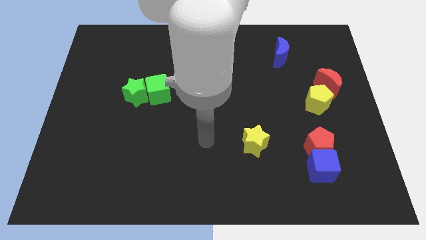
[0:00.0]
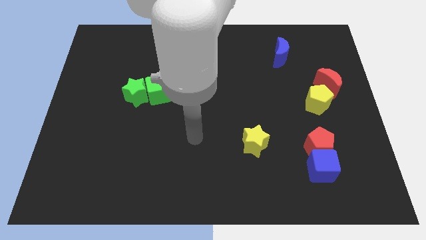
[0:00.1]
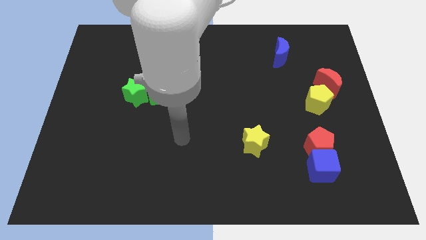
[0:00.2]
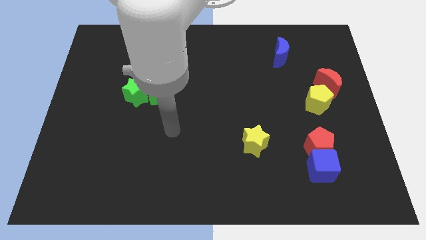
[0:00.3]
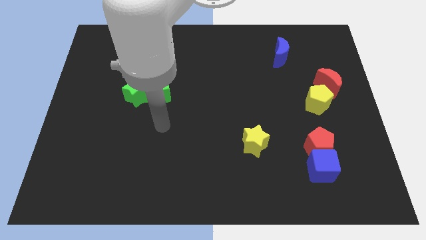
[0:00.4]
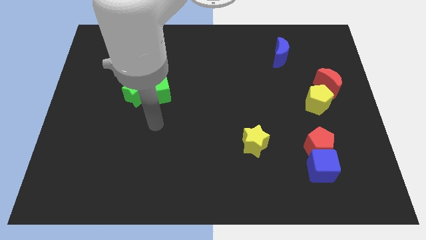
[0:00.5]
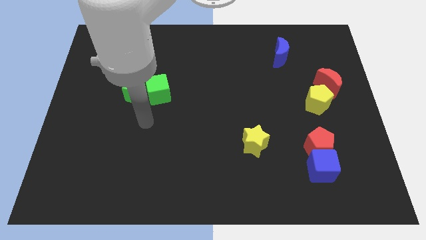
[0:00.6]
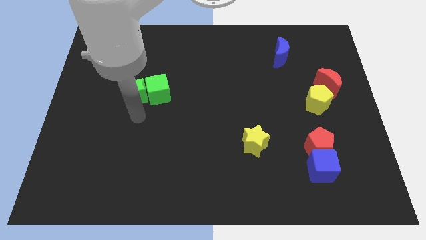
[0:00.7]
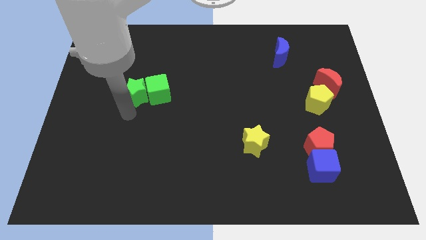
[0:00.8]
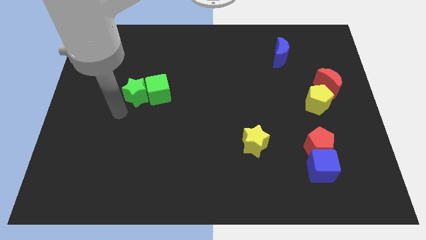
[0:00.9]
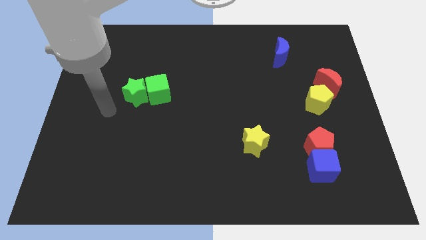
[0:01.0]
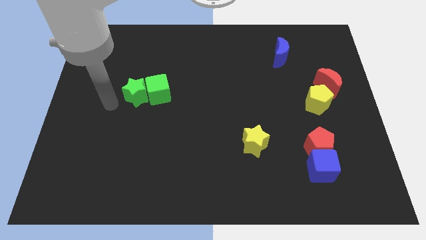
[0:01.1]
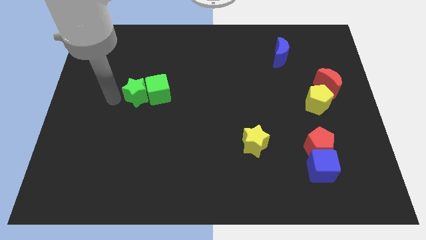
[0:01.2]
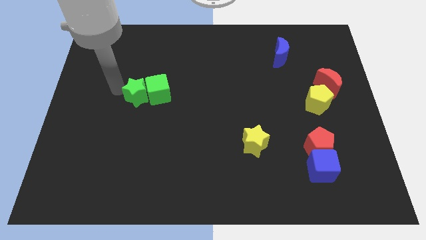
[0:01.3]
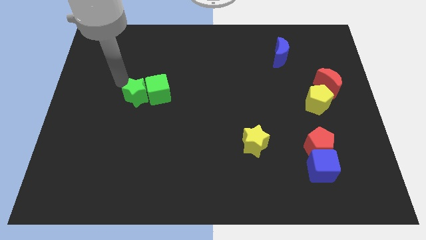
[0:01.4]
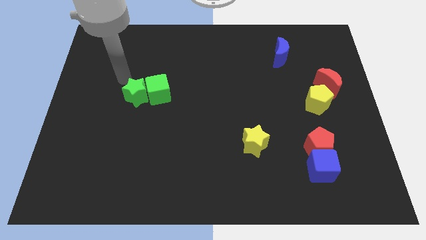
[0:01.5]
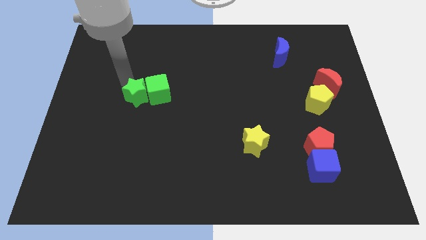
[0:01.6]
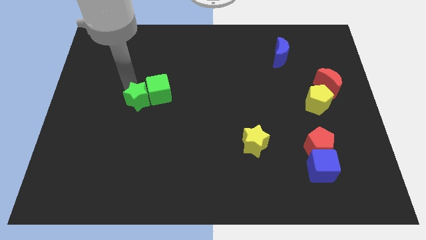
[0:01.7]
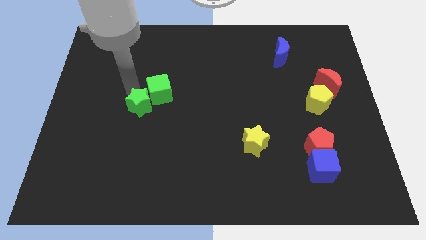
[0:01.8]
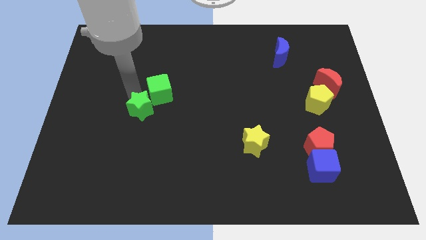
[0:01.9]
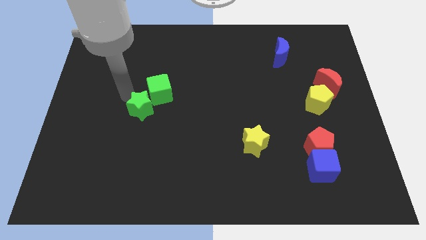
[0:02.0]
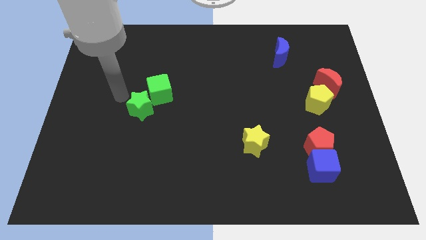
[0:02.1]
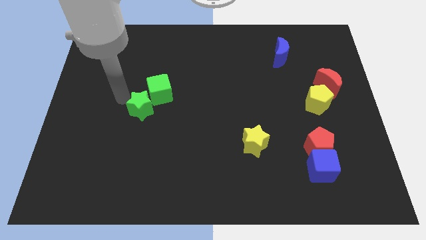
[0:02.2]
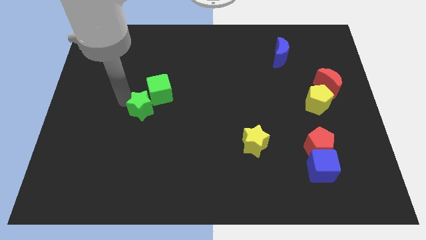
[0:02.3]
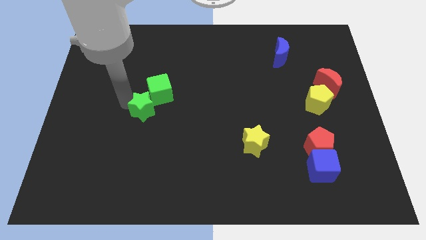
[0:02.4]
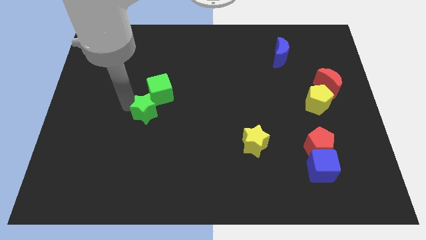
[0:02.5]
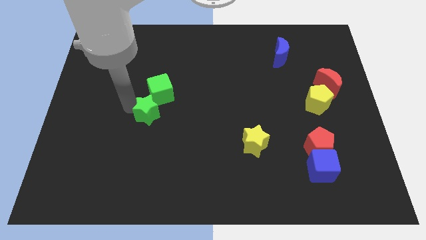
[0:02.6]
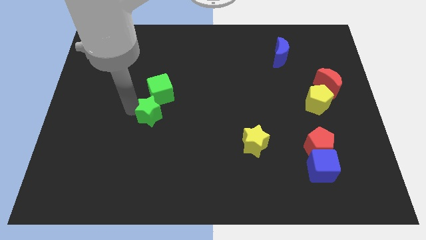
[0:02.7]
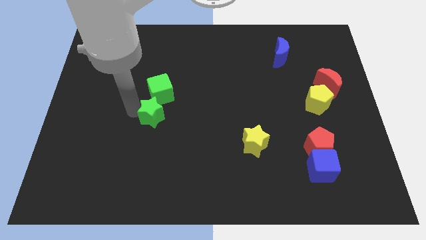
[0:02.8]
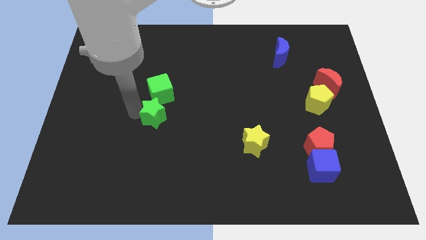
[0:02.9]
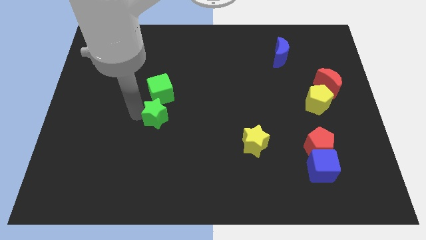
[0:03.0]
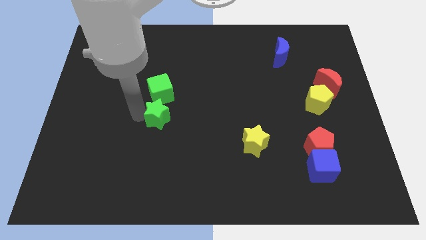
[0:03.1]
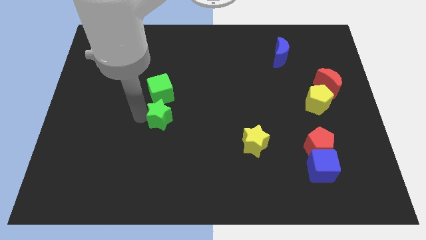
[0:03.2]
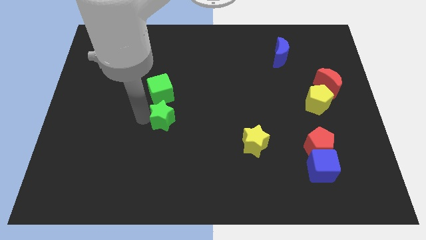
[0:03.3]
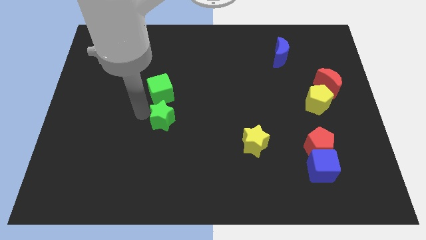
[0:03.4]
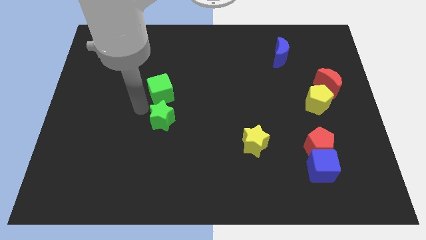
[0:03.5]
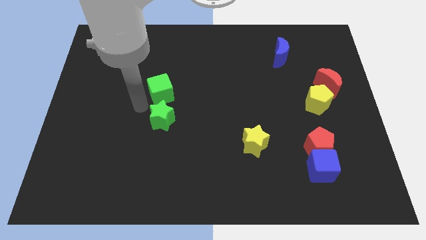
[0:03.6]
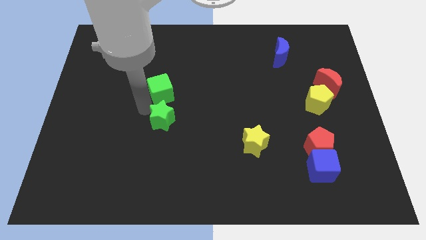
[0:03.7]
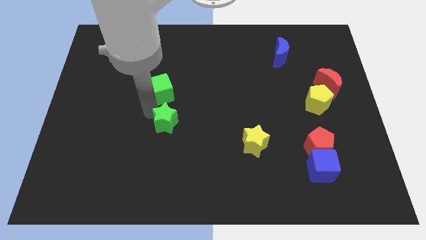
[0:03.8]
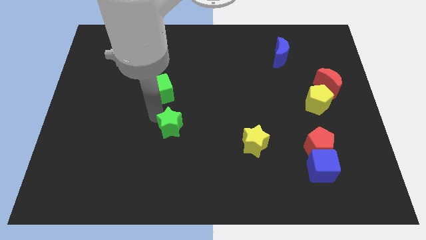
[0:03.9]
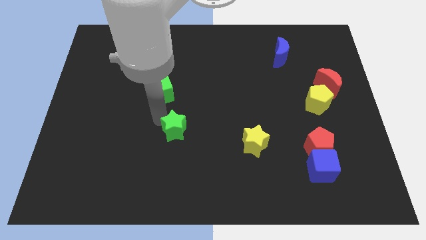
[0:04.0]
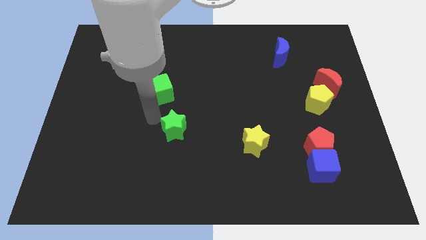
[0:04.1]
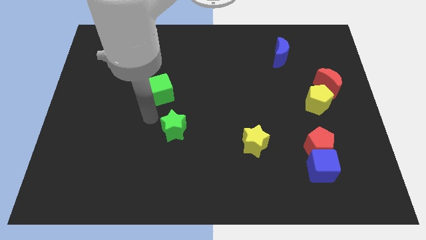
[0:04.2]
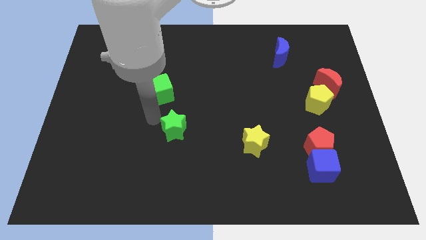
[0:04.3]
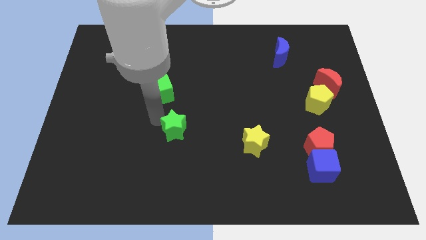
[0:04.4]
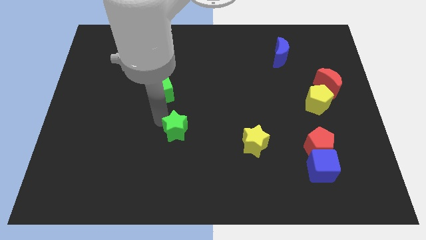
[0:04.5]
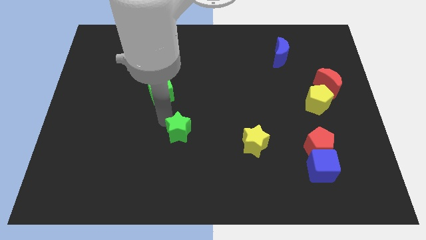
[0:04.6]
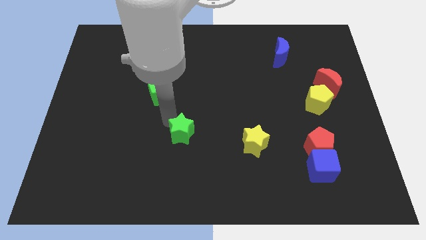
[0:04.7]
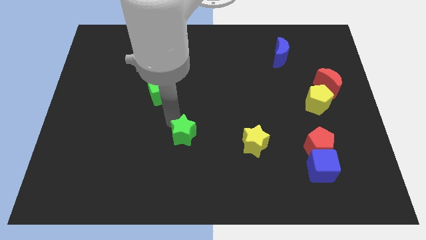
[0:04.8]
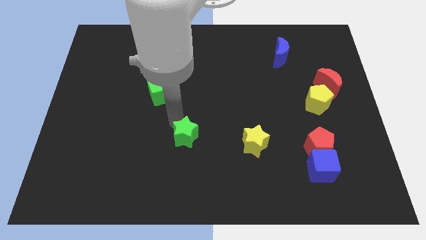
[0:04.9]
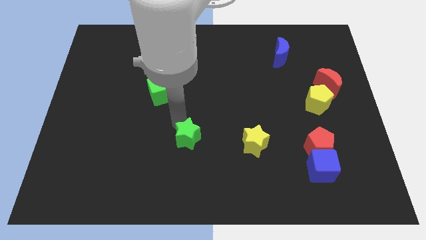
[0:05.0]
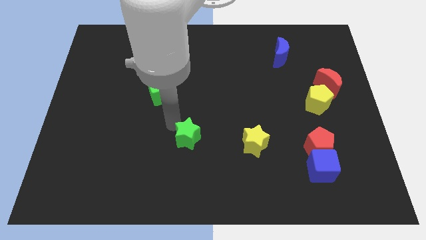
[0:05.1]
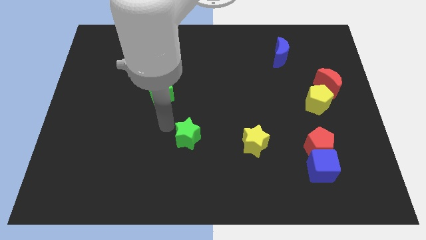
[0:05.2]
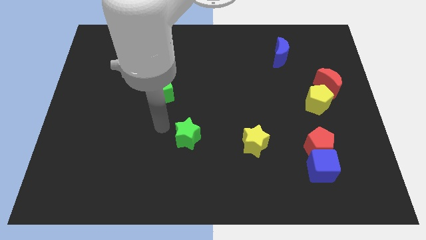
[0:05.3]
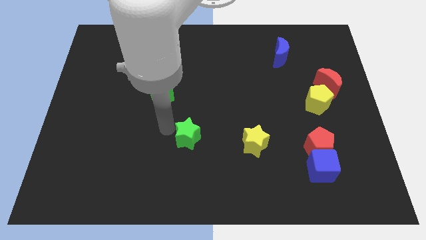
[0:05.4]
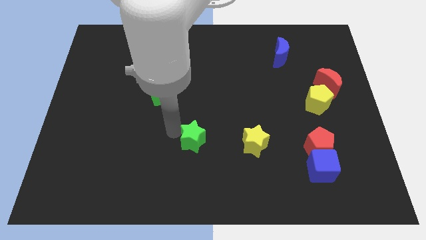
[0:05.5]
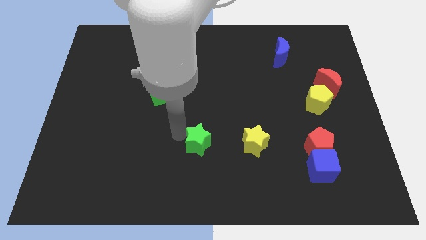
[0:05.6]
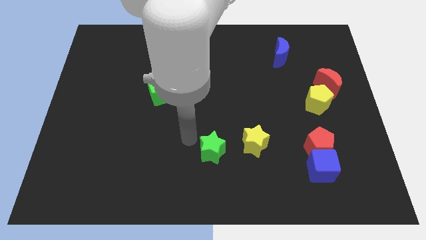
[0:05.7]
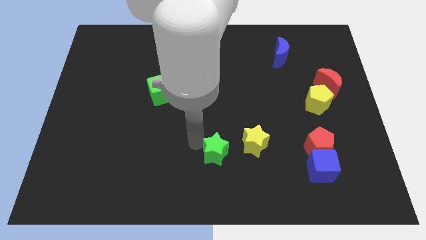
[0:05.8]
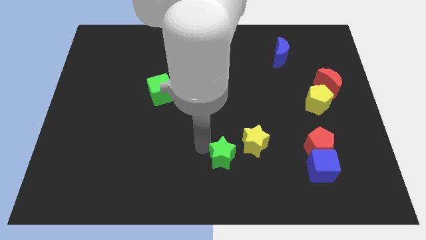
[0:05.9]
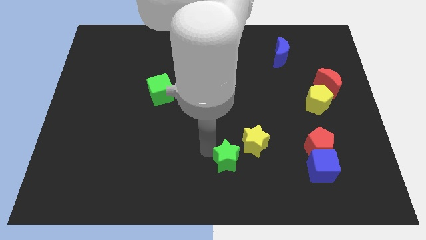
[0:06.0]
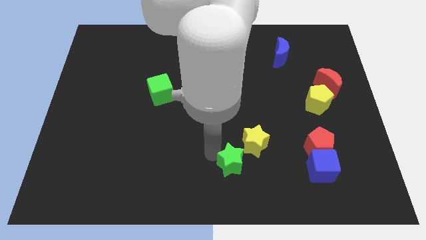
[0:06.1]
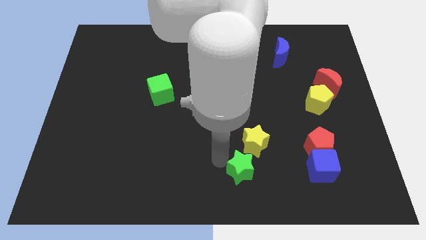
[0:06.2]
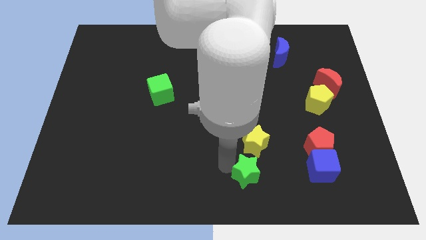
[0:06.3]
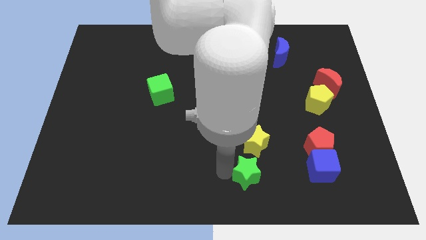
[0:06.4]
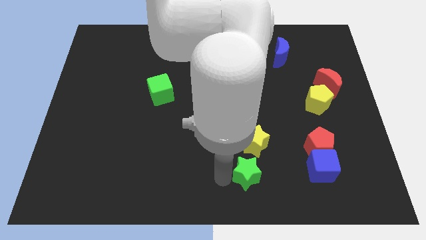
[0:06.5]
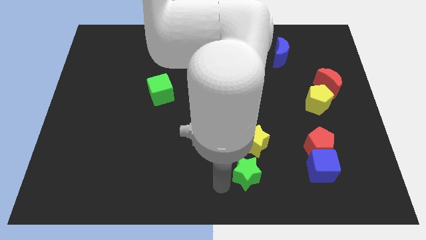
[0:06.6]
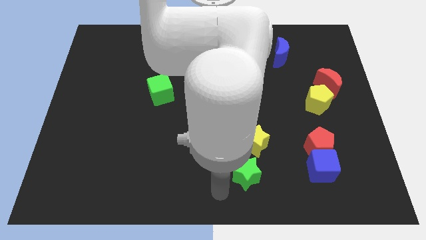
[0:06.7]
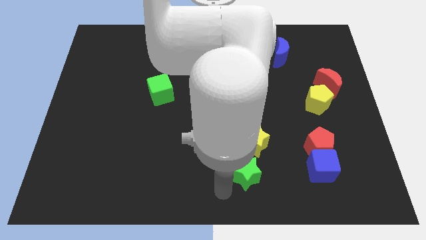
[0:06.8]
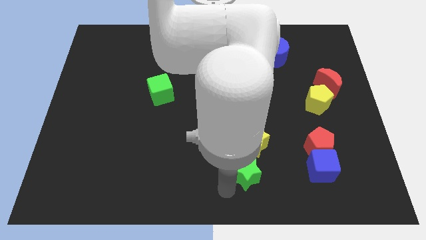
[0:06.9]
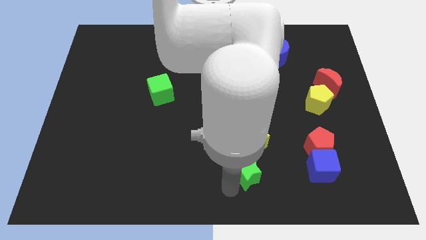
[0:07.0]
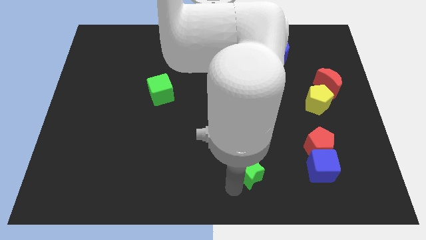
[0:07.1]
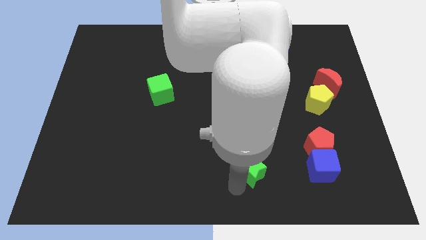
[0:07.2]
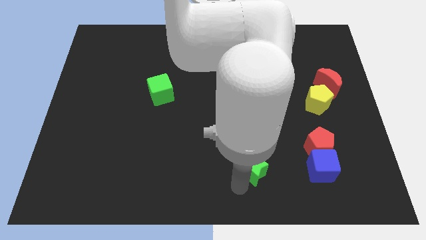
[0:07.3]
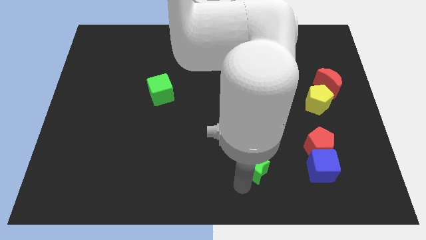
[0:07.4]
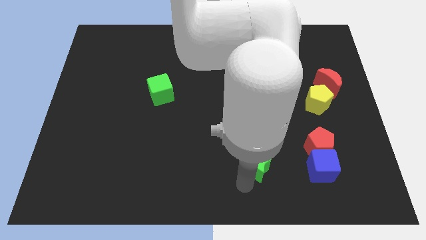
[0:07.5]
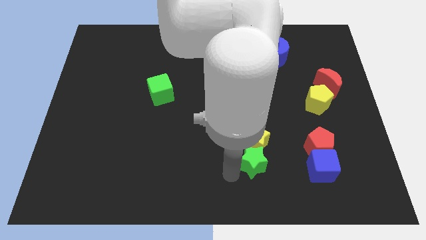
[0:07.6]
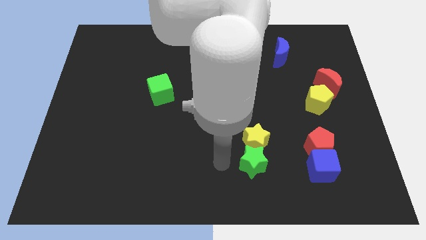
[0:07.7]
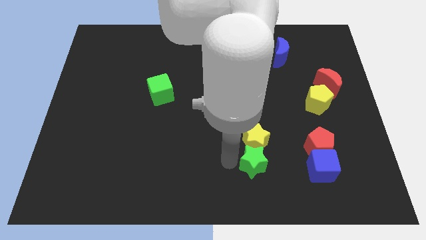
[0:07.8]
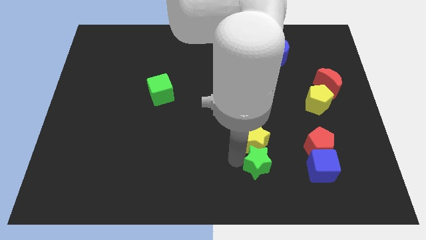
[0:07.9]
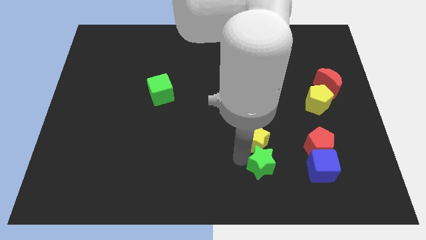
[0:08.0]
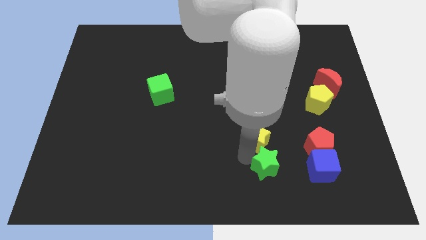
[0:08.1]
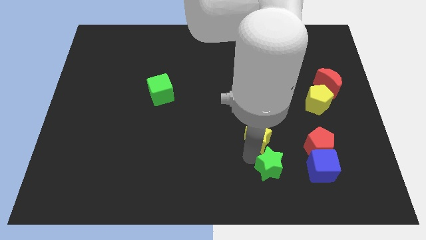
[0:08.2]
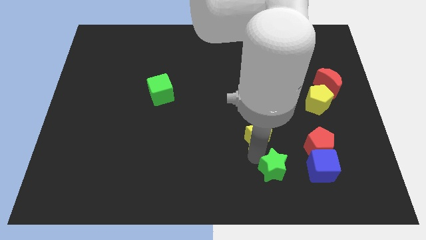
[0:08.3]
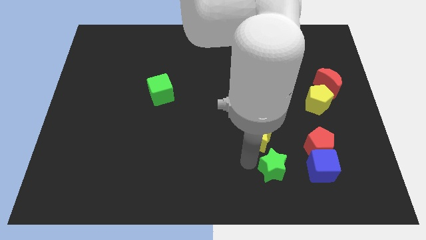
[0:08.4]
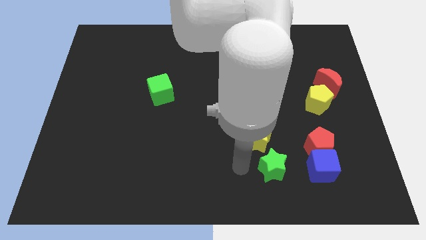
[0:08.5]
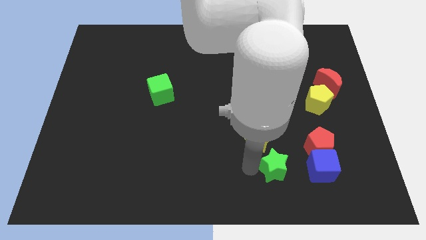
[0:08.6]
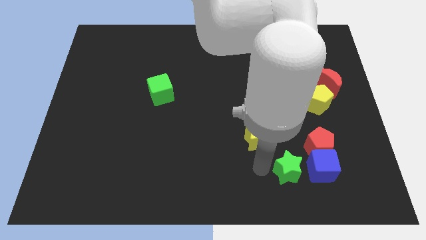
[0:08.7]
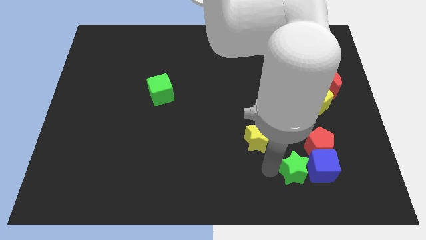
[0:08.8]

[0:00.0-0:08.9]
put the green star to the blue cube
